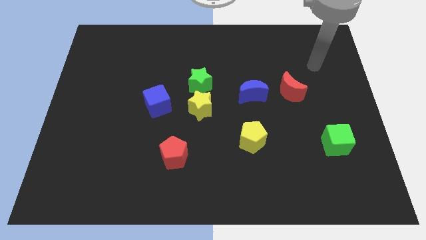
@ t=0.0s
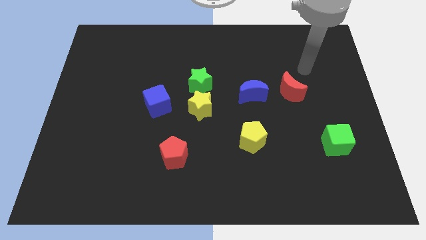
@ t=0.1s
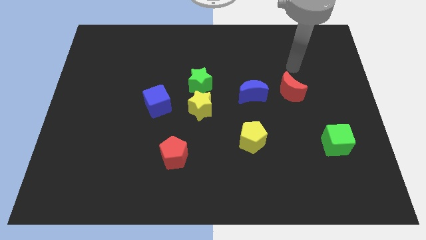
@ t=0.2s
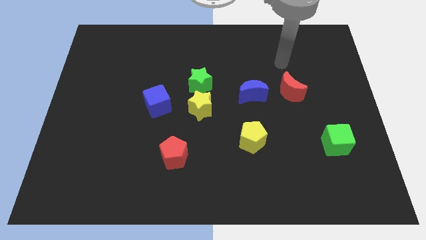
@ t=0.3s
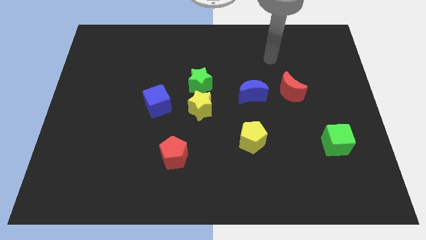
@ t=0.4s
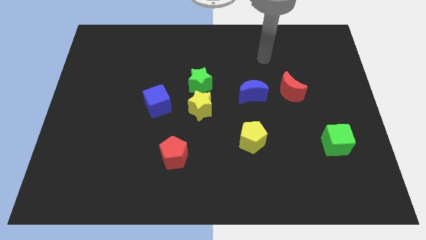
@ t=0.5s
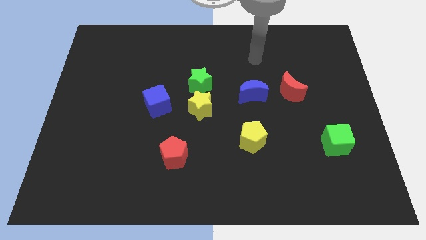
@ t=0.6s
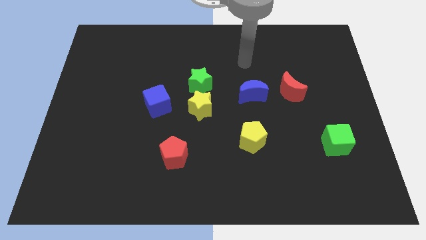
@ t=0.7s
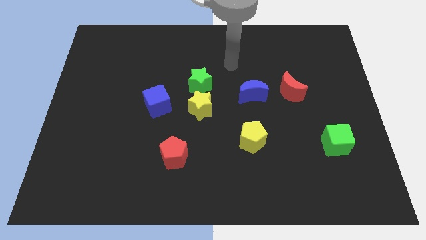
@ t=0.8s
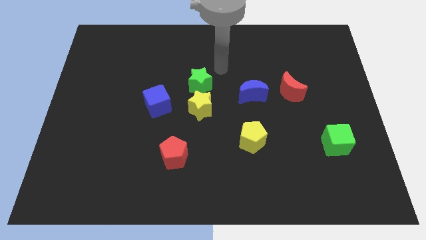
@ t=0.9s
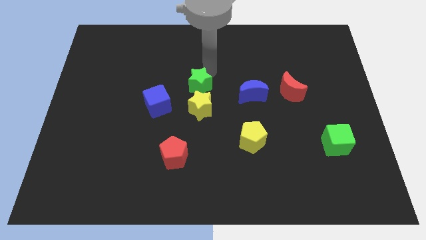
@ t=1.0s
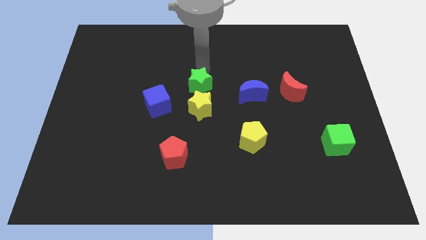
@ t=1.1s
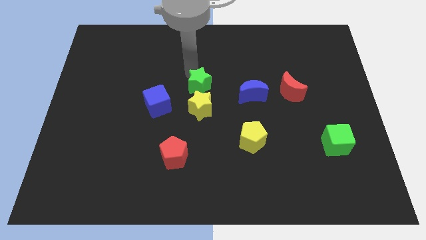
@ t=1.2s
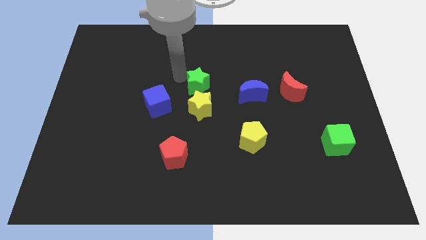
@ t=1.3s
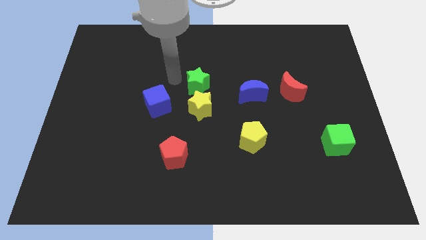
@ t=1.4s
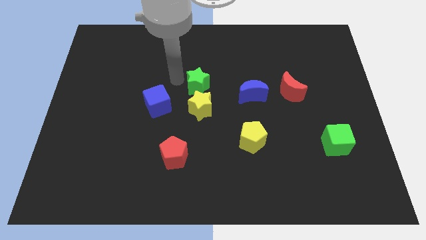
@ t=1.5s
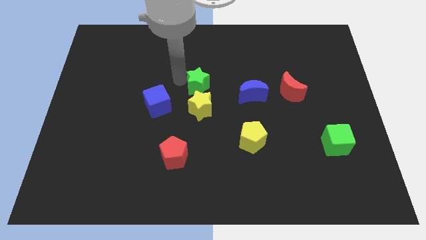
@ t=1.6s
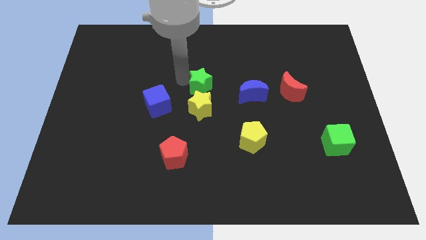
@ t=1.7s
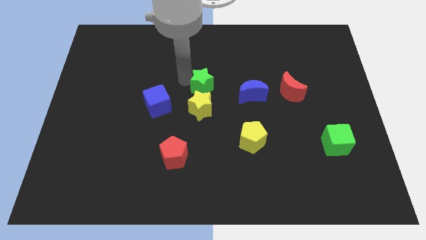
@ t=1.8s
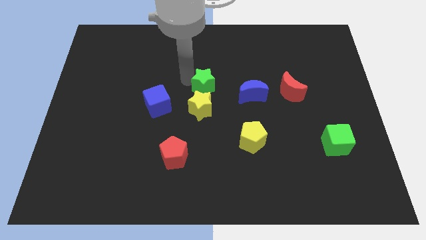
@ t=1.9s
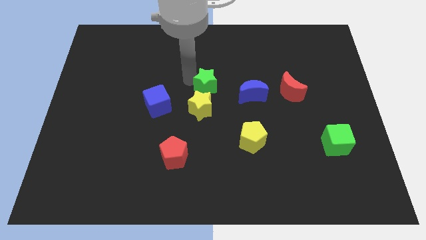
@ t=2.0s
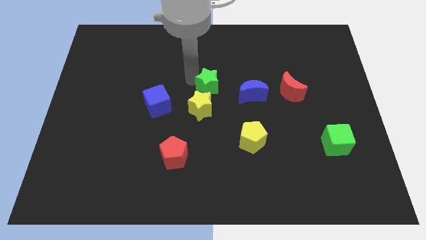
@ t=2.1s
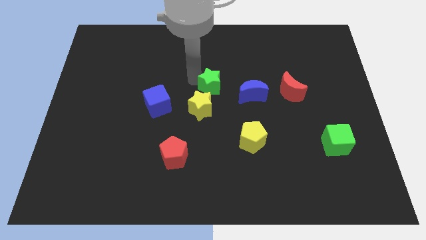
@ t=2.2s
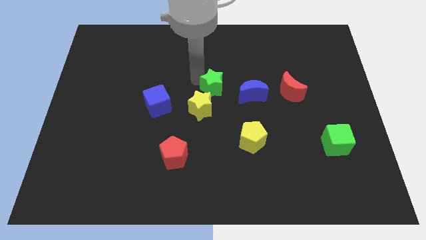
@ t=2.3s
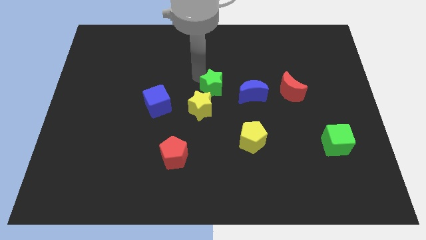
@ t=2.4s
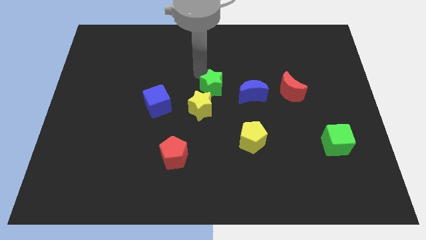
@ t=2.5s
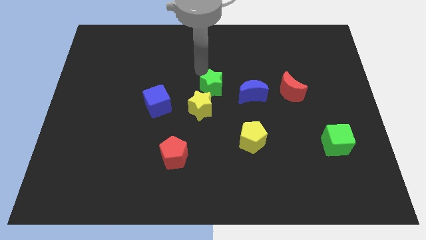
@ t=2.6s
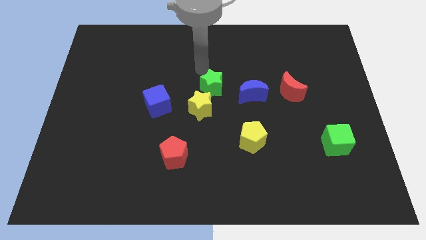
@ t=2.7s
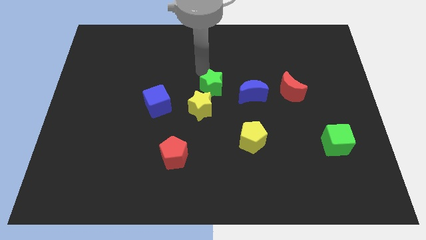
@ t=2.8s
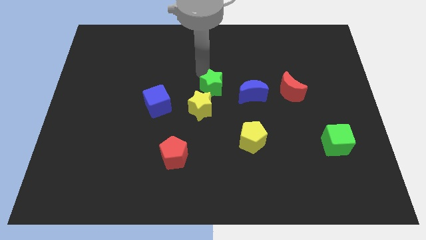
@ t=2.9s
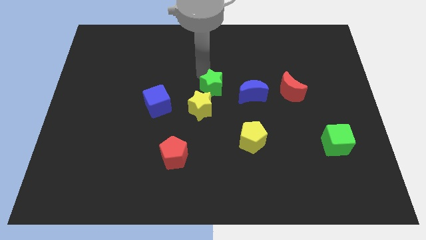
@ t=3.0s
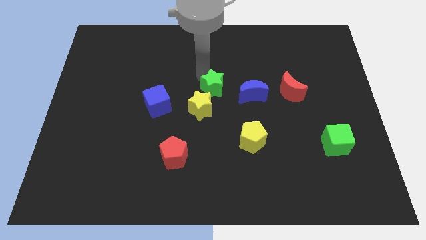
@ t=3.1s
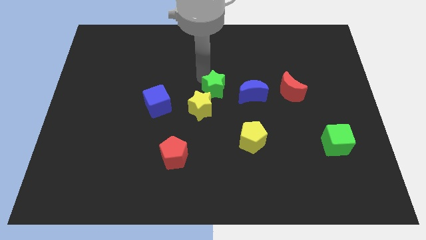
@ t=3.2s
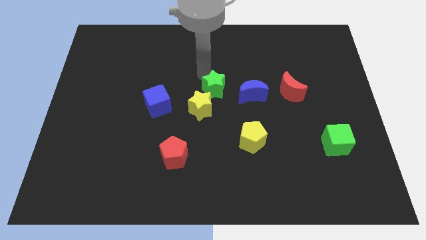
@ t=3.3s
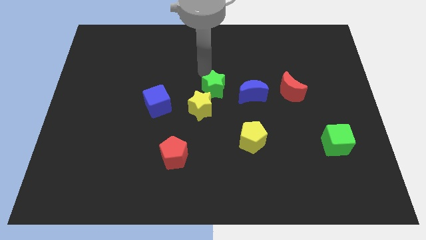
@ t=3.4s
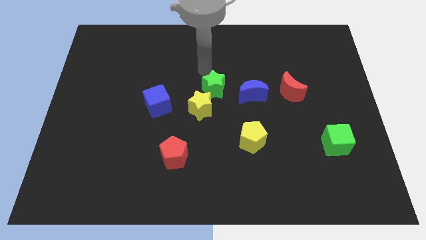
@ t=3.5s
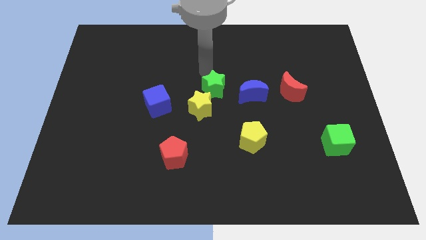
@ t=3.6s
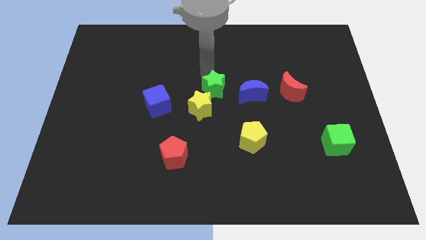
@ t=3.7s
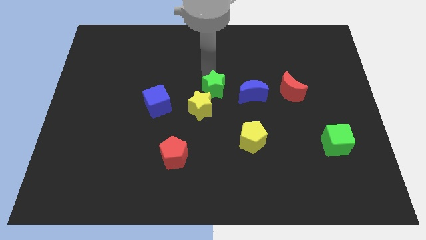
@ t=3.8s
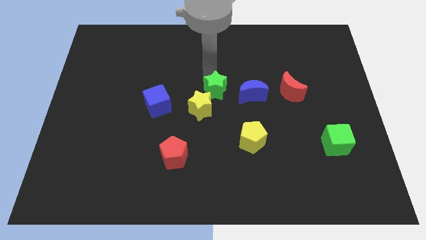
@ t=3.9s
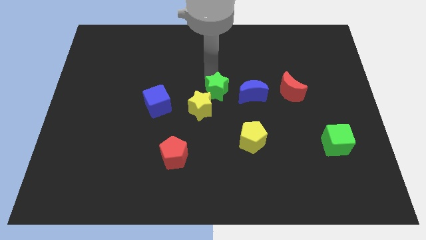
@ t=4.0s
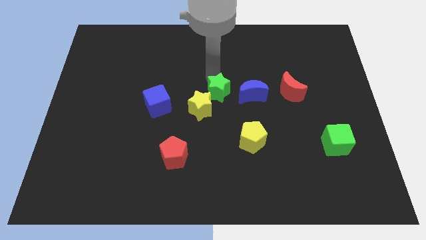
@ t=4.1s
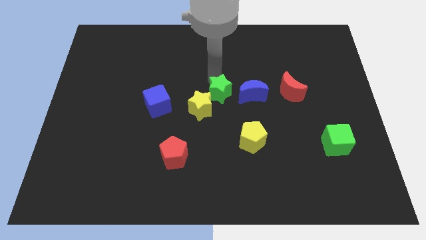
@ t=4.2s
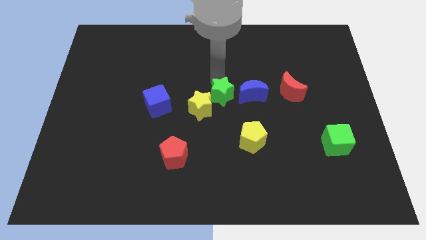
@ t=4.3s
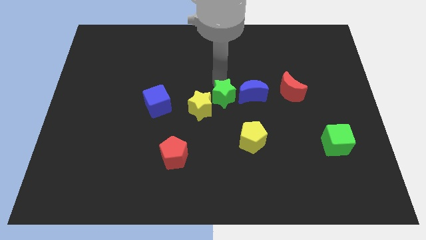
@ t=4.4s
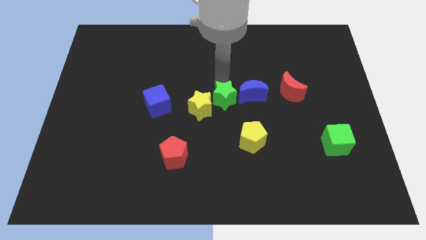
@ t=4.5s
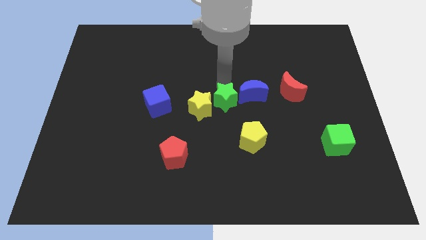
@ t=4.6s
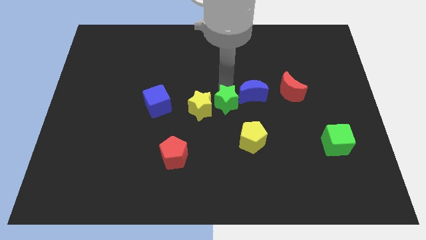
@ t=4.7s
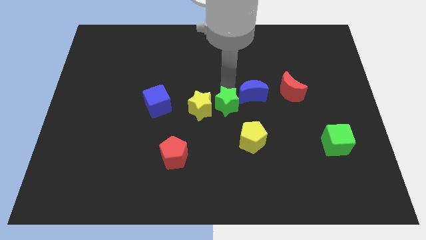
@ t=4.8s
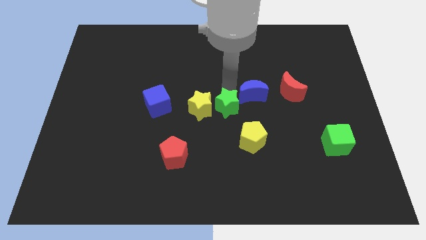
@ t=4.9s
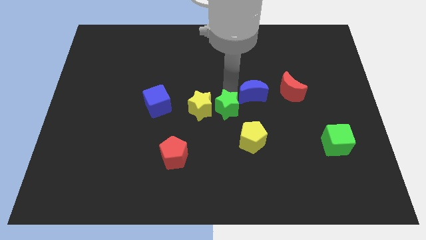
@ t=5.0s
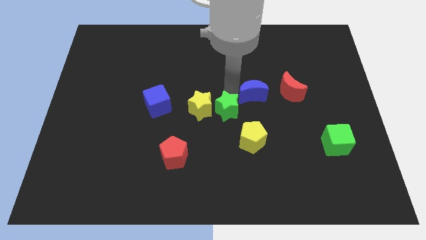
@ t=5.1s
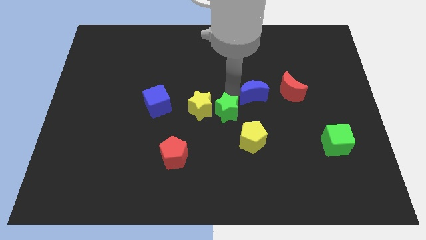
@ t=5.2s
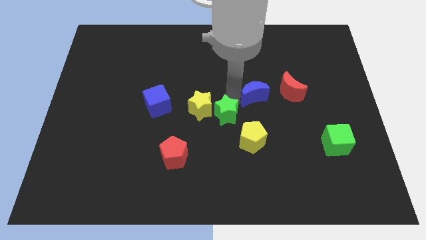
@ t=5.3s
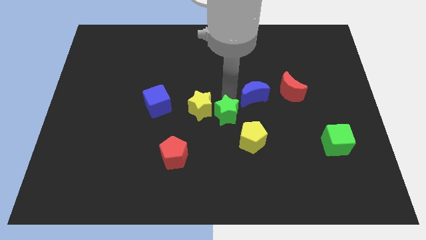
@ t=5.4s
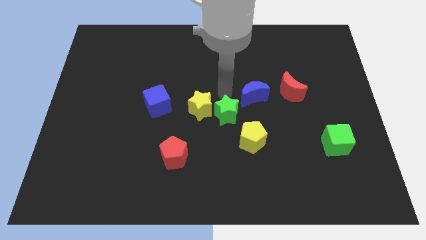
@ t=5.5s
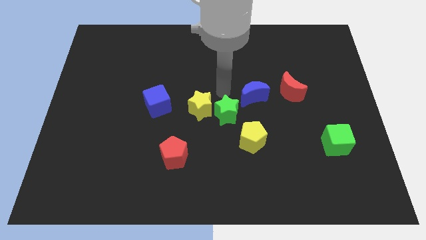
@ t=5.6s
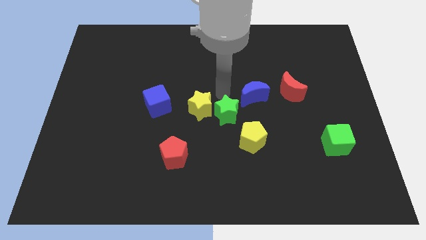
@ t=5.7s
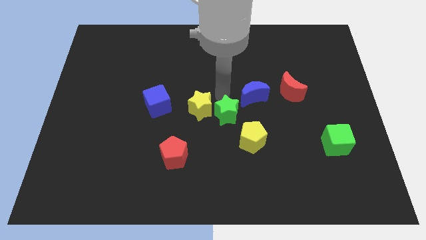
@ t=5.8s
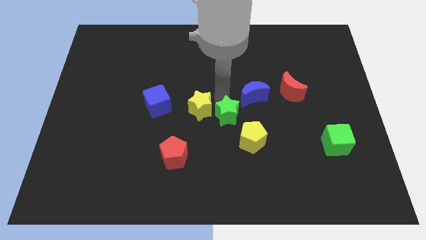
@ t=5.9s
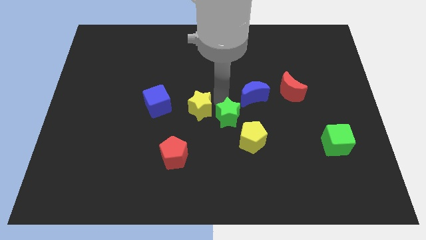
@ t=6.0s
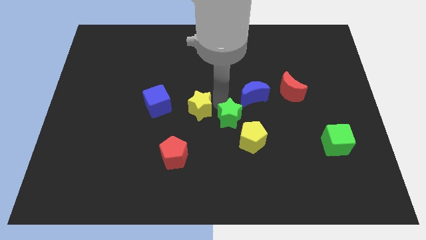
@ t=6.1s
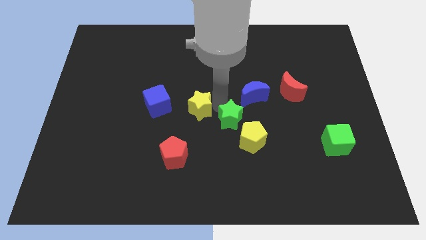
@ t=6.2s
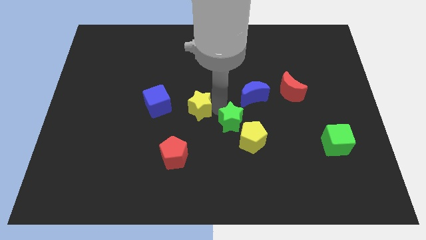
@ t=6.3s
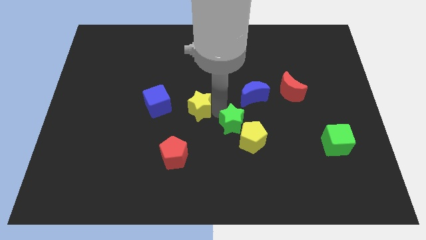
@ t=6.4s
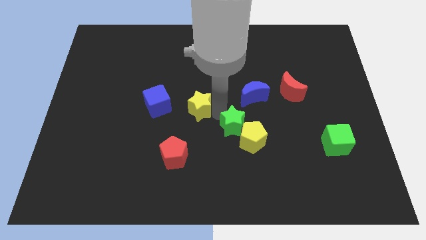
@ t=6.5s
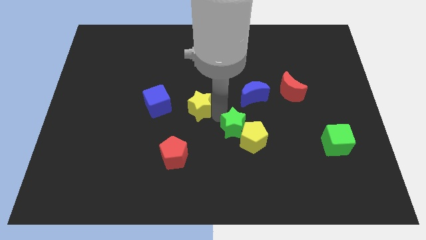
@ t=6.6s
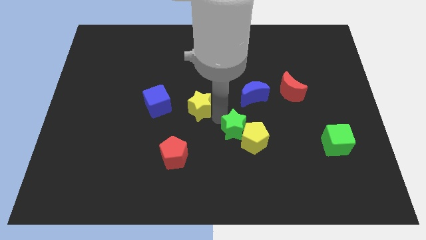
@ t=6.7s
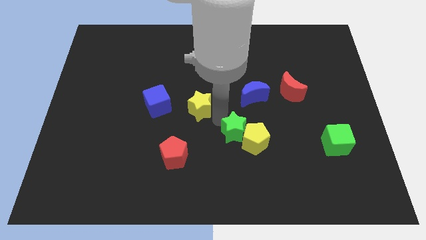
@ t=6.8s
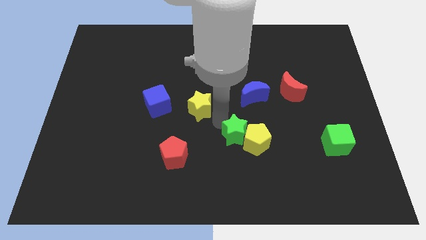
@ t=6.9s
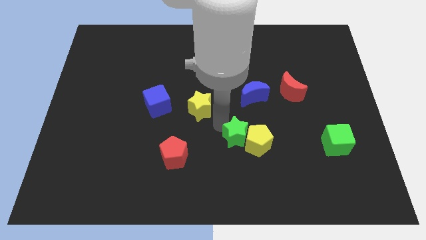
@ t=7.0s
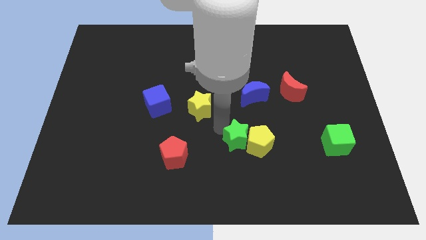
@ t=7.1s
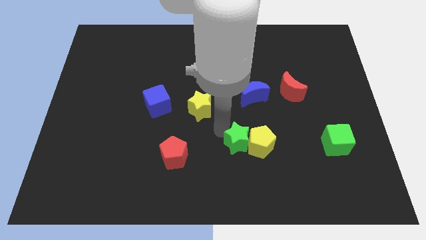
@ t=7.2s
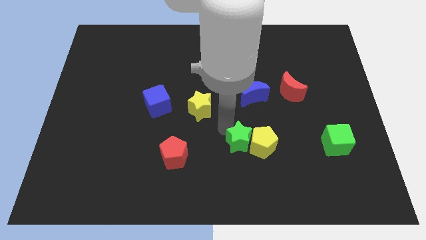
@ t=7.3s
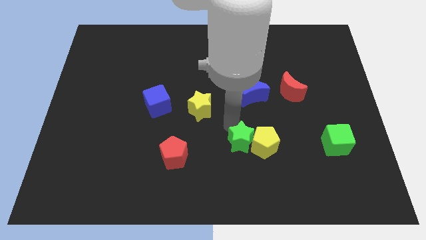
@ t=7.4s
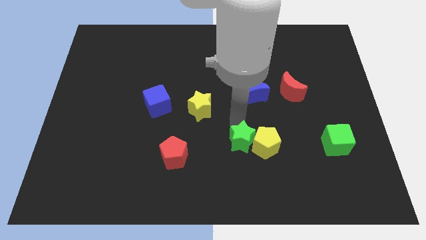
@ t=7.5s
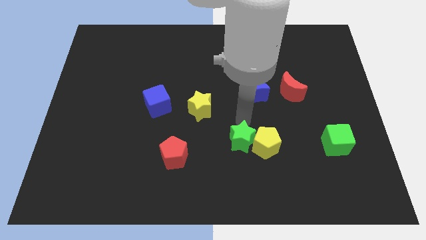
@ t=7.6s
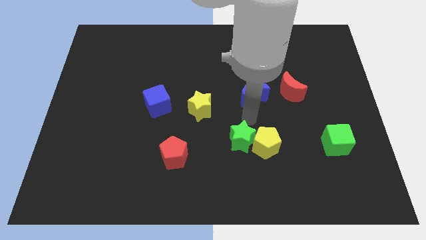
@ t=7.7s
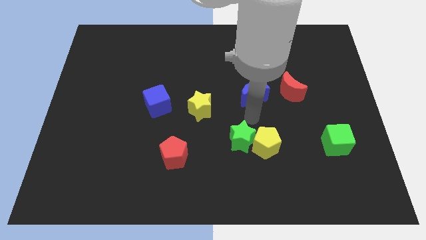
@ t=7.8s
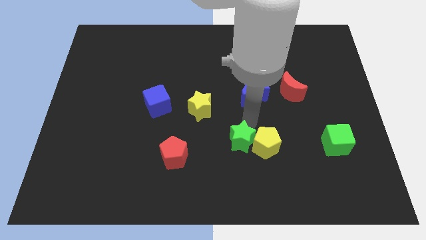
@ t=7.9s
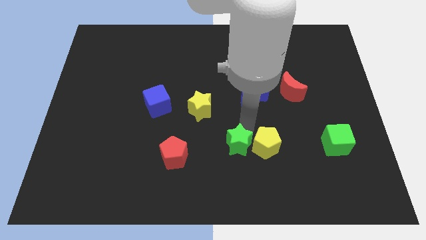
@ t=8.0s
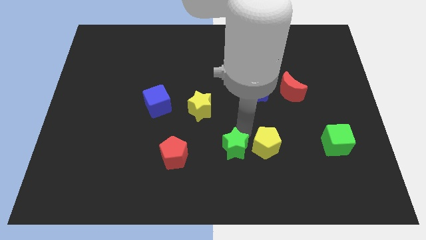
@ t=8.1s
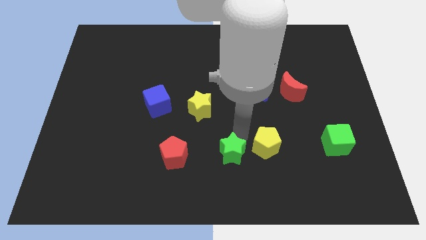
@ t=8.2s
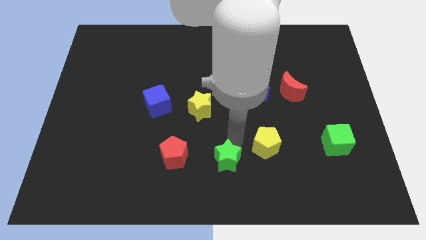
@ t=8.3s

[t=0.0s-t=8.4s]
move the green star to the bottom
